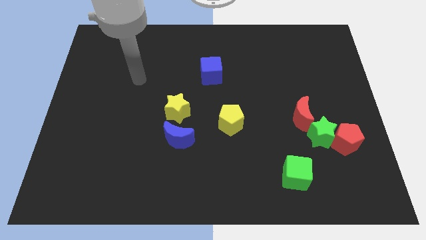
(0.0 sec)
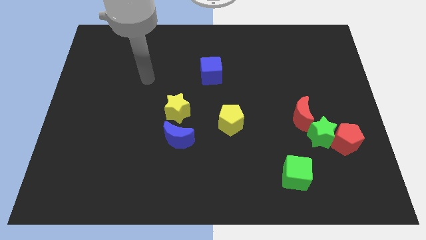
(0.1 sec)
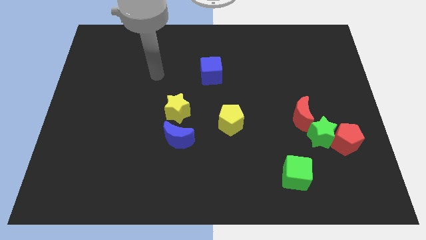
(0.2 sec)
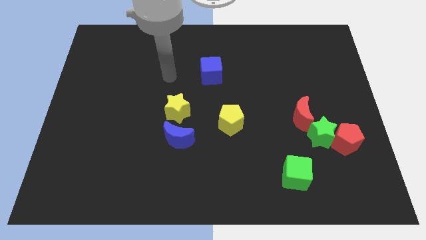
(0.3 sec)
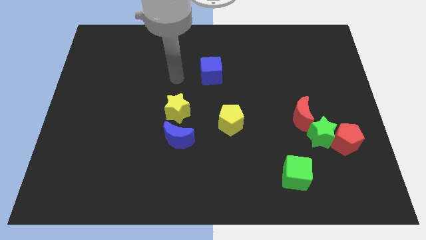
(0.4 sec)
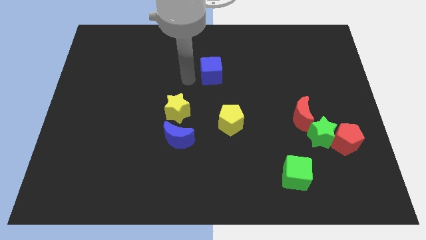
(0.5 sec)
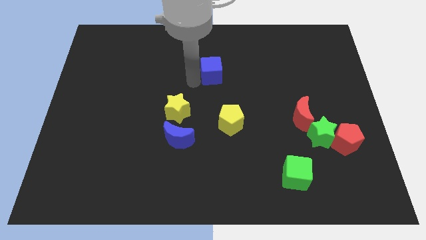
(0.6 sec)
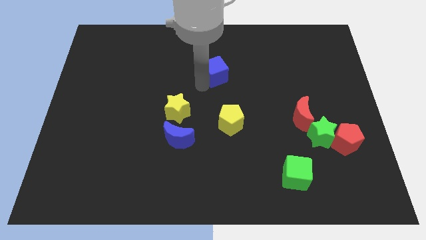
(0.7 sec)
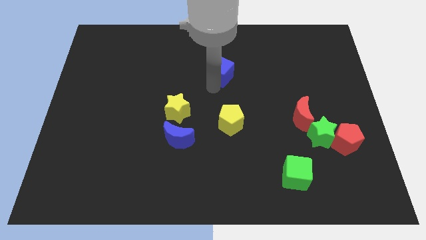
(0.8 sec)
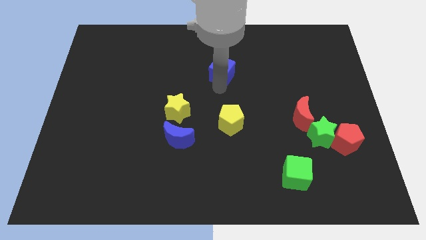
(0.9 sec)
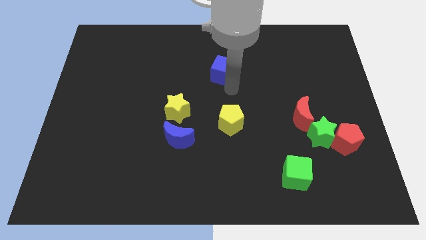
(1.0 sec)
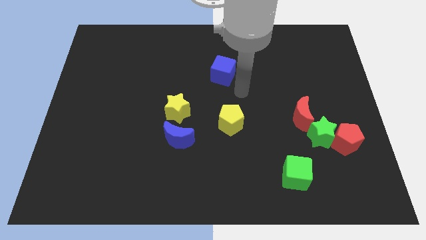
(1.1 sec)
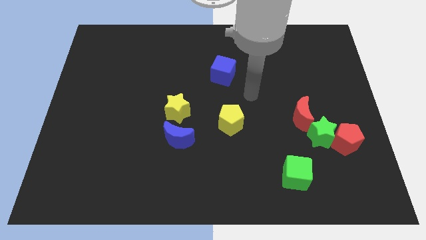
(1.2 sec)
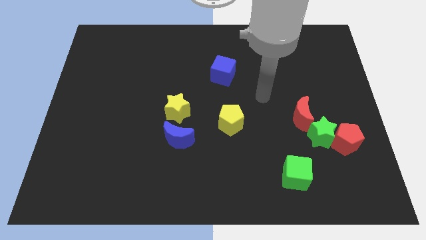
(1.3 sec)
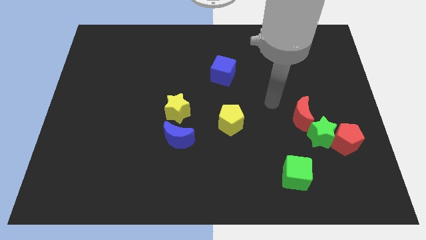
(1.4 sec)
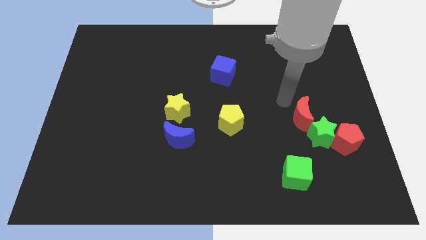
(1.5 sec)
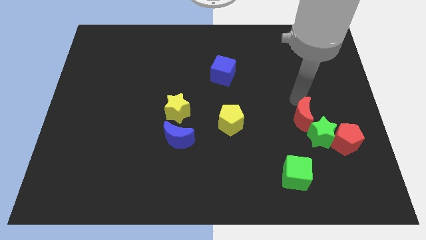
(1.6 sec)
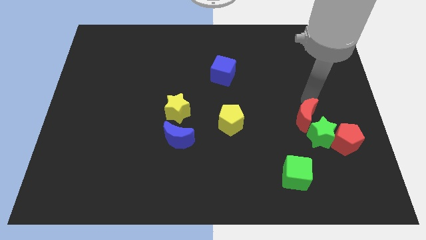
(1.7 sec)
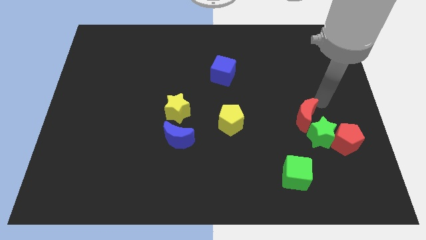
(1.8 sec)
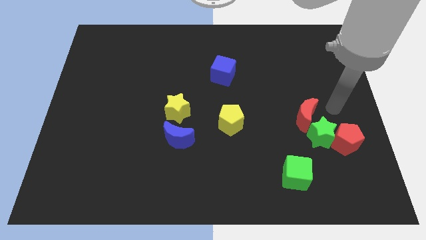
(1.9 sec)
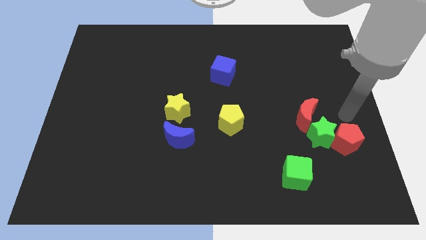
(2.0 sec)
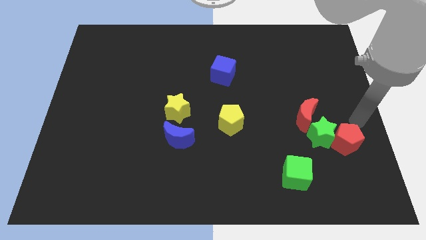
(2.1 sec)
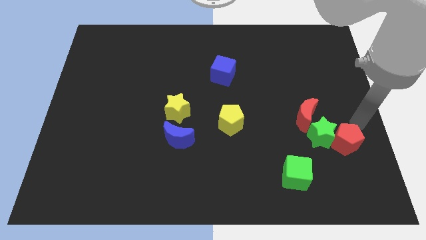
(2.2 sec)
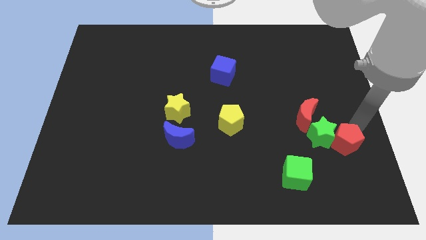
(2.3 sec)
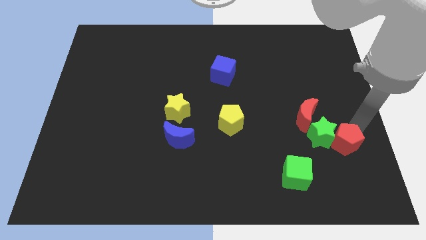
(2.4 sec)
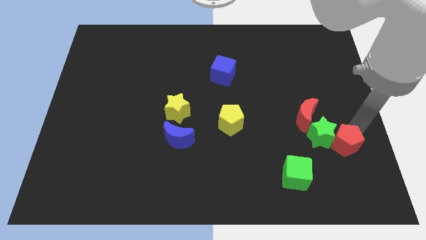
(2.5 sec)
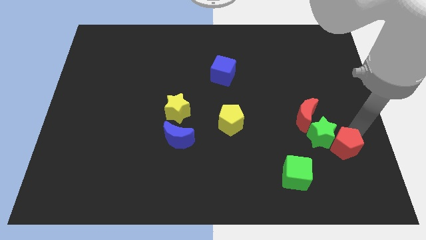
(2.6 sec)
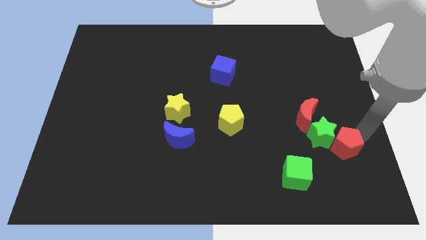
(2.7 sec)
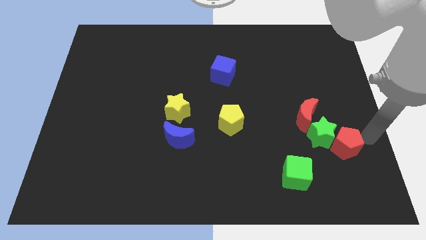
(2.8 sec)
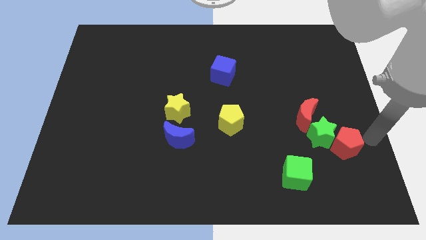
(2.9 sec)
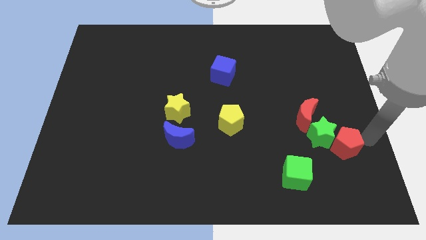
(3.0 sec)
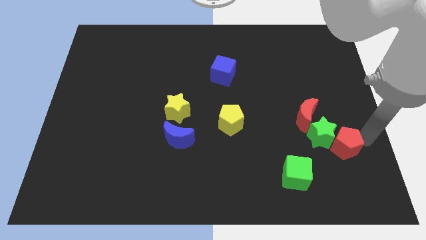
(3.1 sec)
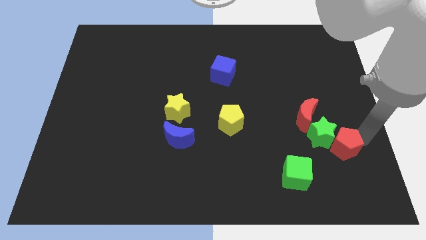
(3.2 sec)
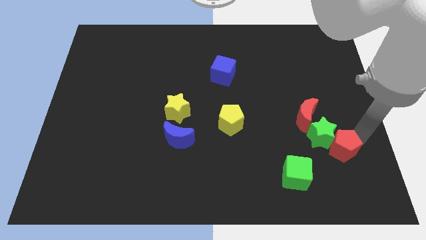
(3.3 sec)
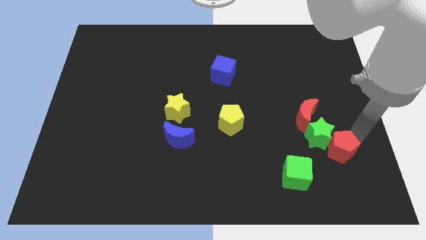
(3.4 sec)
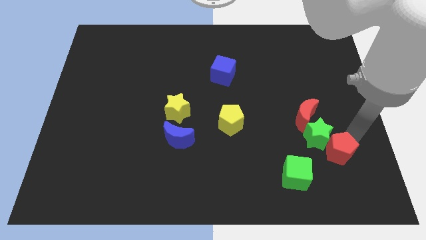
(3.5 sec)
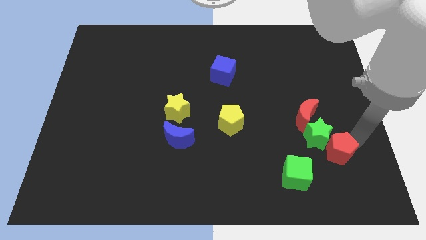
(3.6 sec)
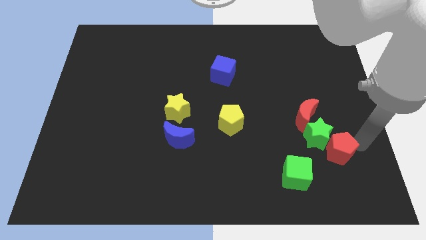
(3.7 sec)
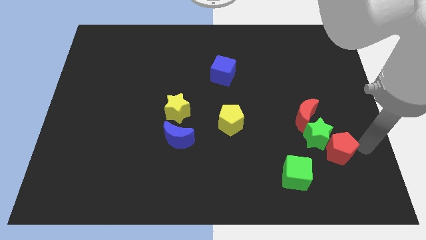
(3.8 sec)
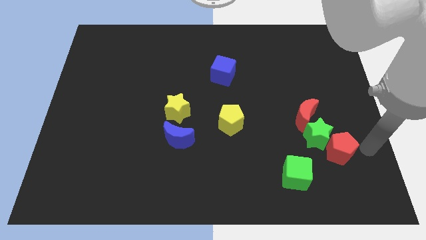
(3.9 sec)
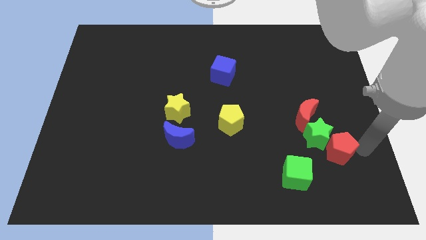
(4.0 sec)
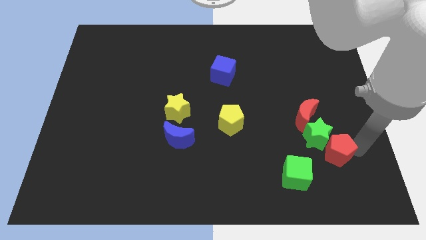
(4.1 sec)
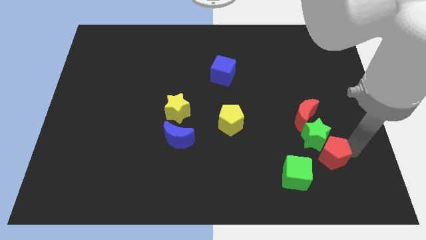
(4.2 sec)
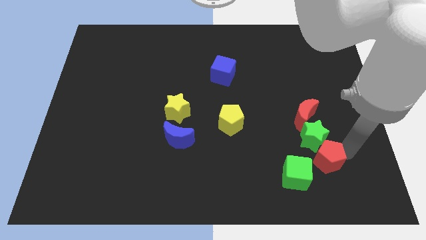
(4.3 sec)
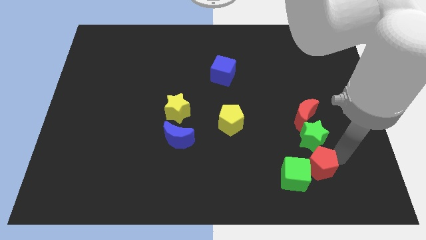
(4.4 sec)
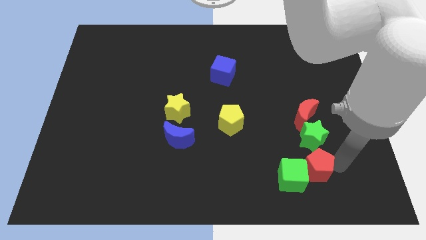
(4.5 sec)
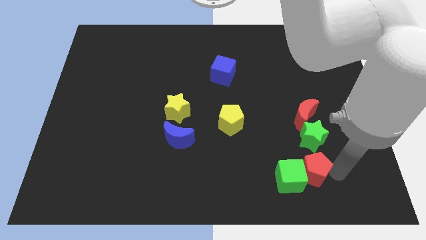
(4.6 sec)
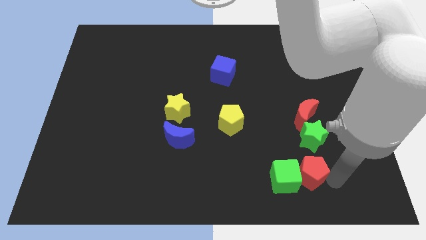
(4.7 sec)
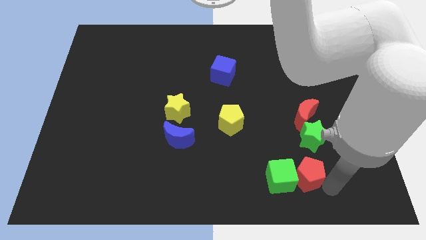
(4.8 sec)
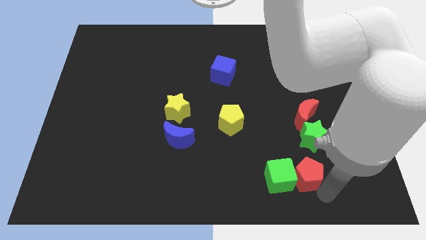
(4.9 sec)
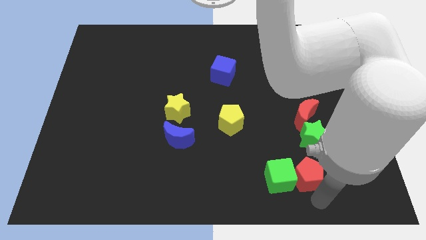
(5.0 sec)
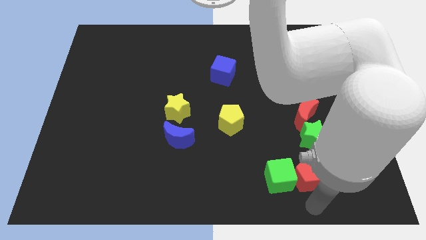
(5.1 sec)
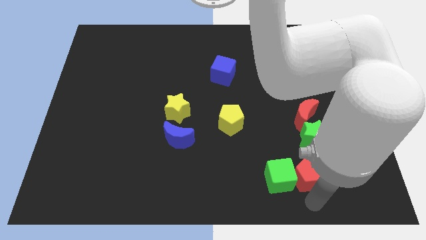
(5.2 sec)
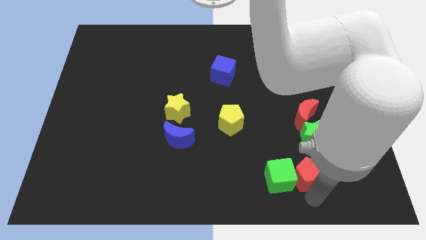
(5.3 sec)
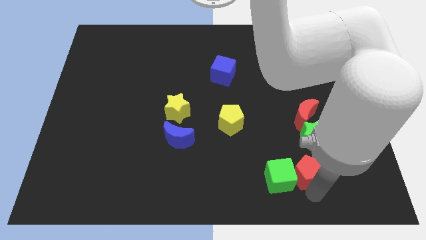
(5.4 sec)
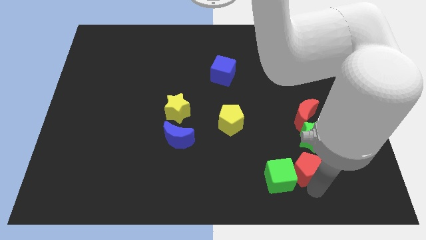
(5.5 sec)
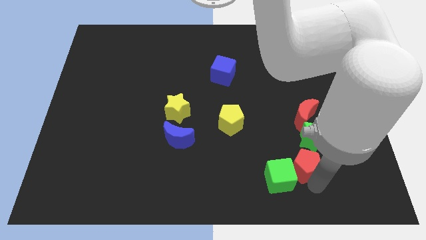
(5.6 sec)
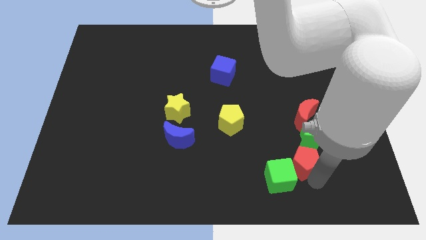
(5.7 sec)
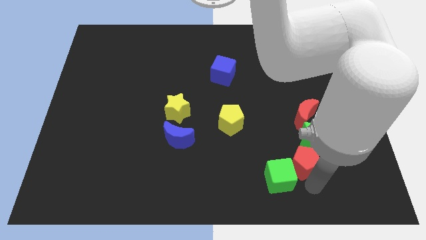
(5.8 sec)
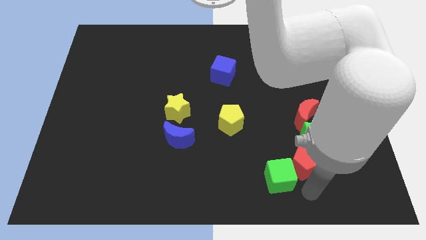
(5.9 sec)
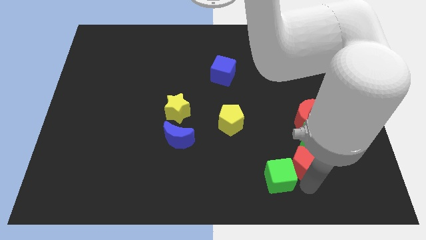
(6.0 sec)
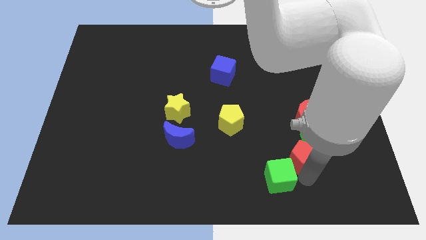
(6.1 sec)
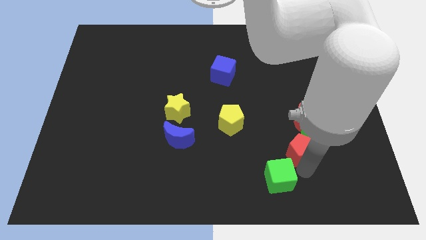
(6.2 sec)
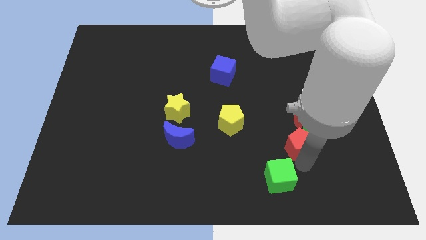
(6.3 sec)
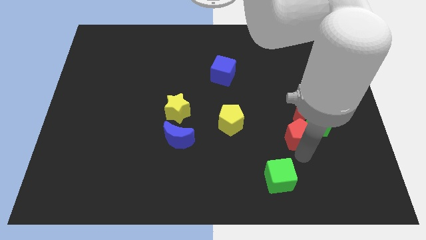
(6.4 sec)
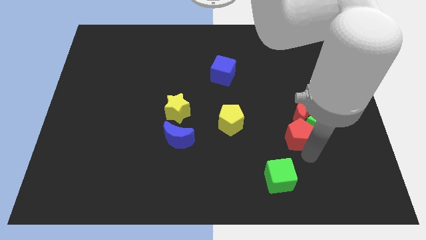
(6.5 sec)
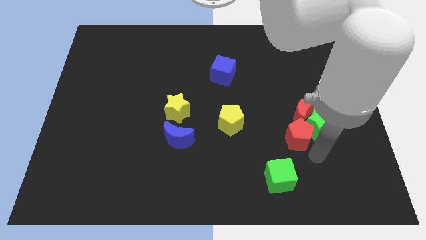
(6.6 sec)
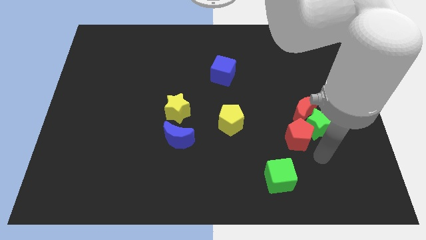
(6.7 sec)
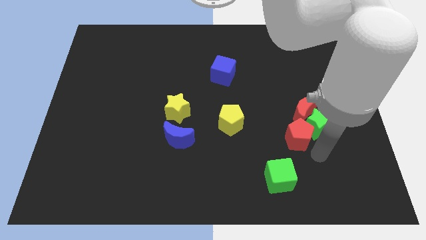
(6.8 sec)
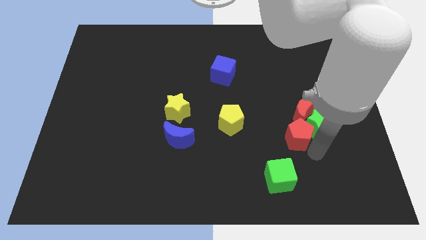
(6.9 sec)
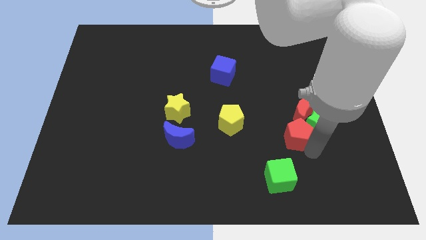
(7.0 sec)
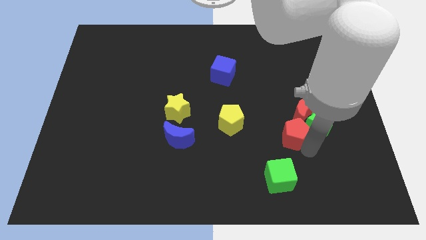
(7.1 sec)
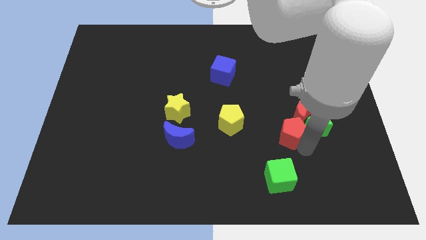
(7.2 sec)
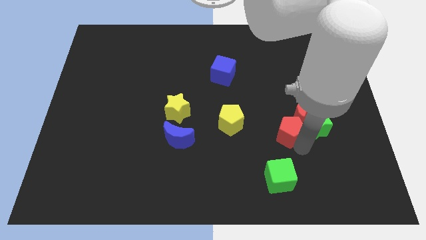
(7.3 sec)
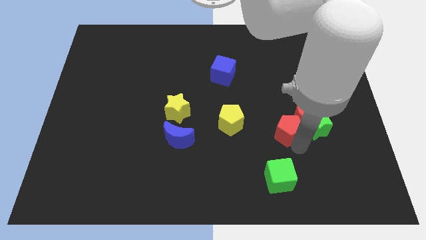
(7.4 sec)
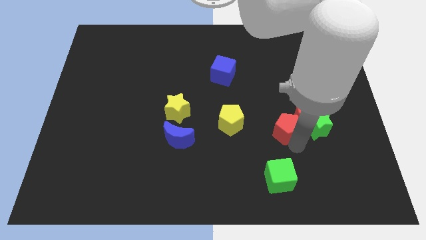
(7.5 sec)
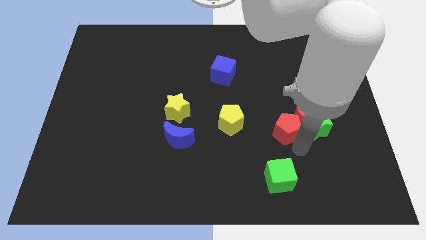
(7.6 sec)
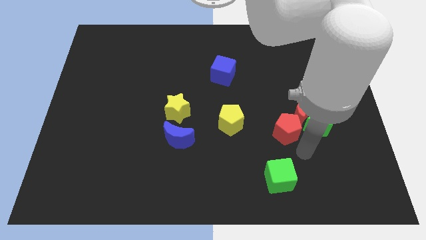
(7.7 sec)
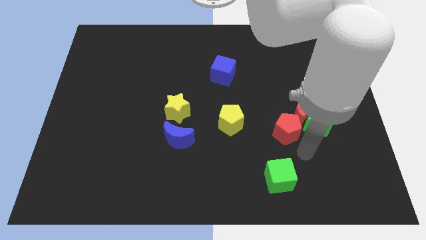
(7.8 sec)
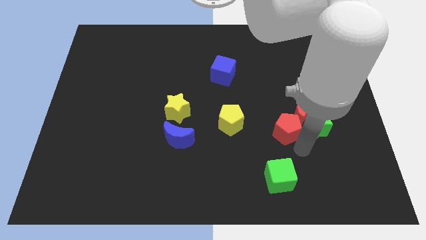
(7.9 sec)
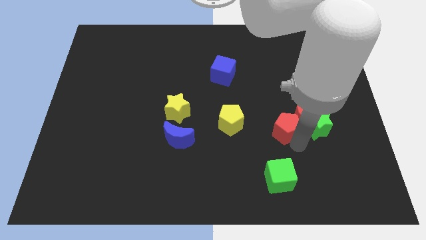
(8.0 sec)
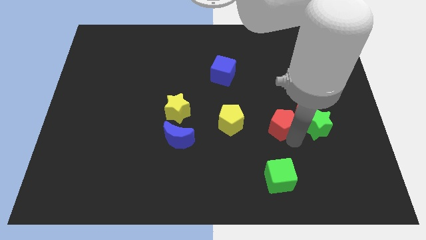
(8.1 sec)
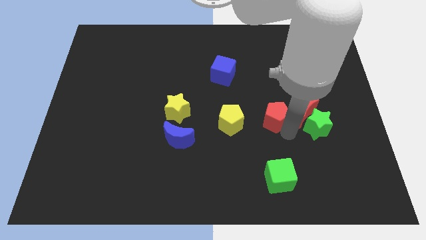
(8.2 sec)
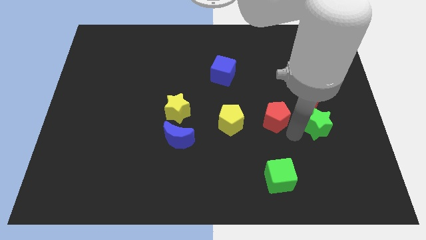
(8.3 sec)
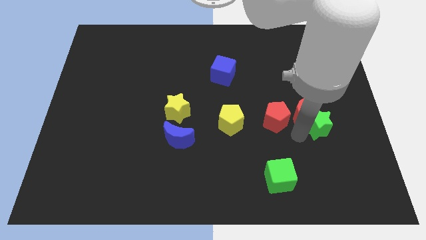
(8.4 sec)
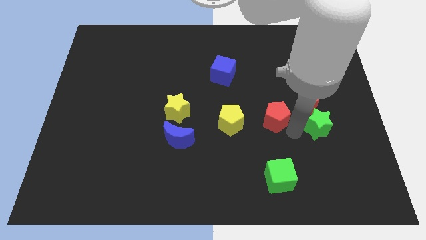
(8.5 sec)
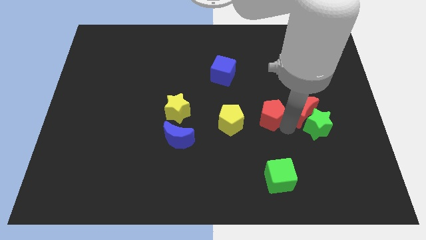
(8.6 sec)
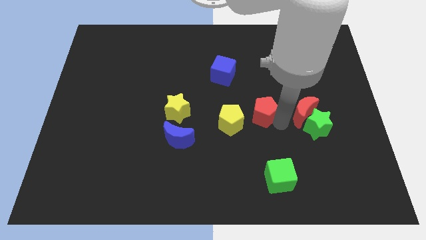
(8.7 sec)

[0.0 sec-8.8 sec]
slide the red pentagon to the top right side of the yellow pentagon
